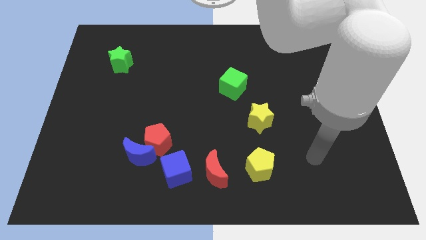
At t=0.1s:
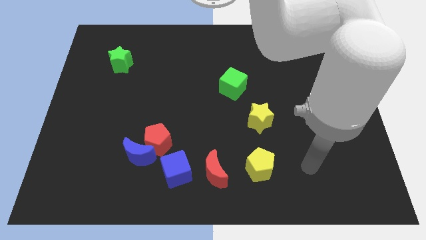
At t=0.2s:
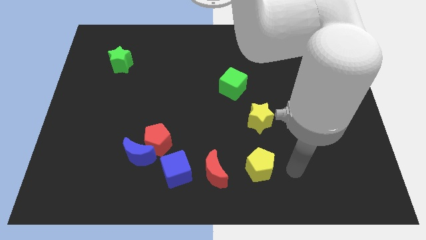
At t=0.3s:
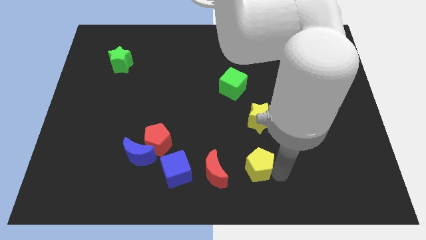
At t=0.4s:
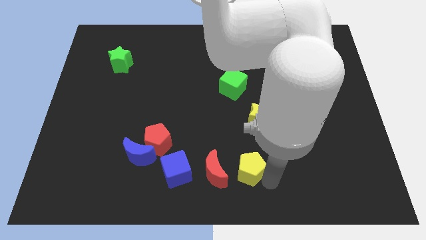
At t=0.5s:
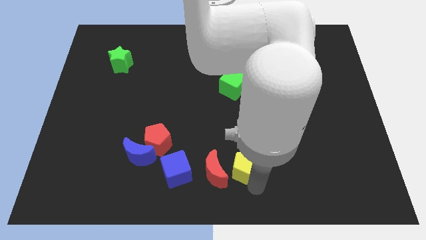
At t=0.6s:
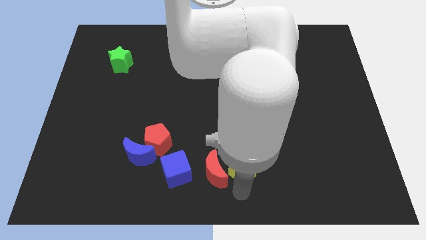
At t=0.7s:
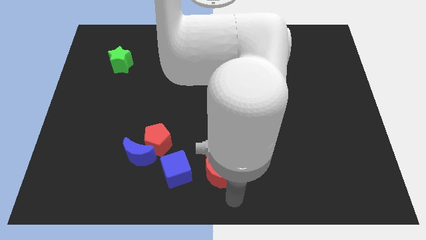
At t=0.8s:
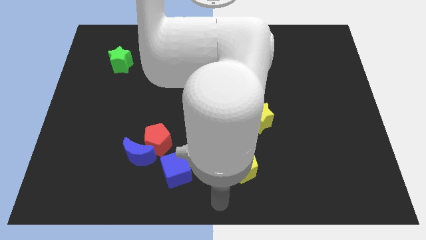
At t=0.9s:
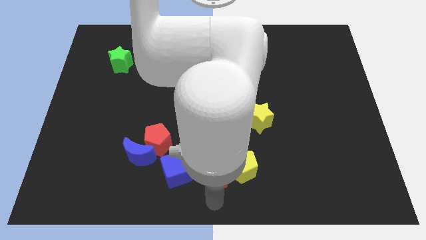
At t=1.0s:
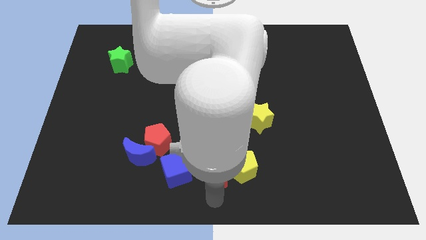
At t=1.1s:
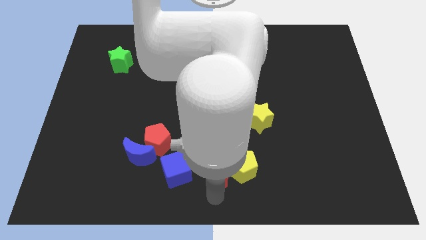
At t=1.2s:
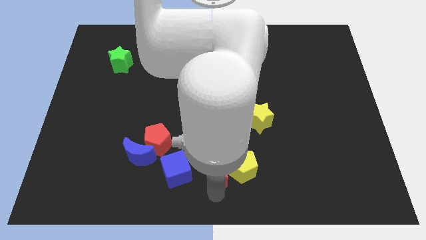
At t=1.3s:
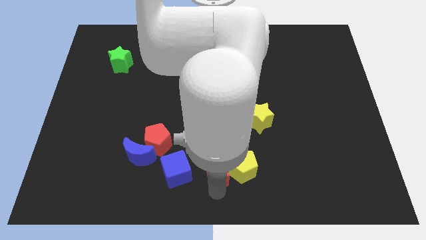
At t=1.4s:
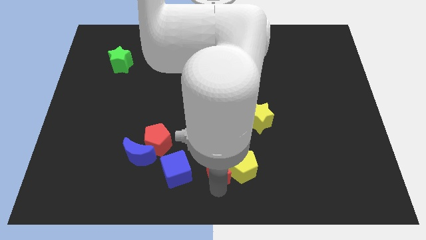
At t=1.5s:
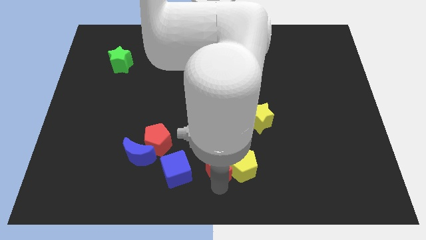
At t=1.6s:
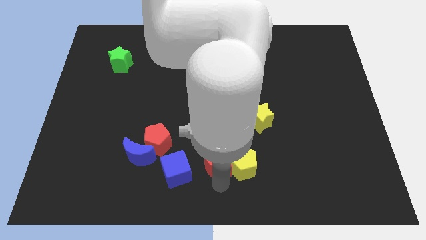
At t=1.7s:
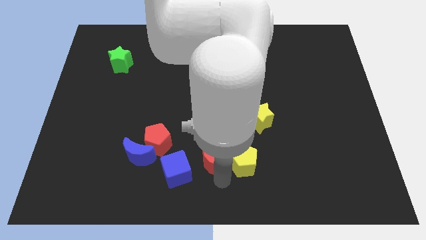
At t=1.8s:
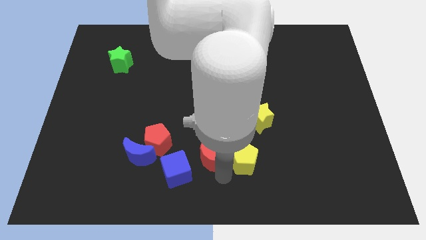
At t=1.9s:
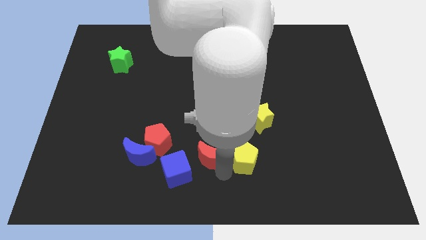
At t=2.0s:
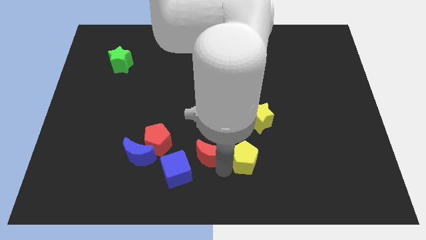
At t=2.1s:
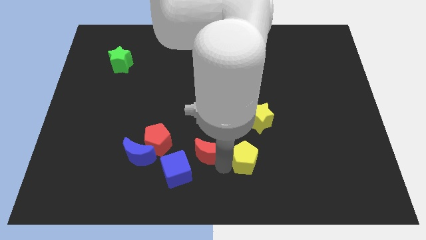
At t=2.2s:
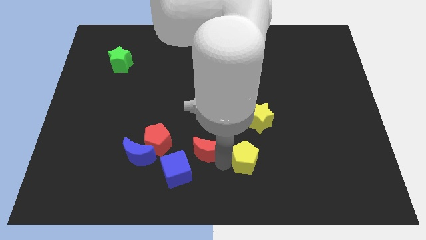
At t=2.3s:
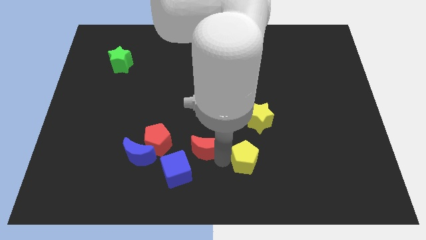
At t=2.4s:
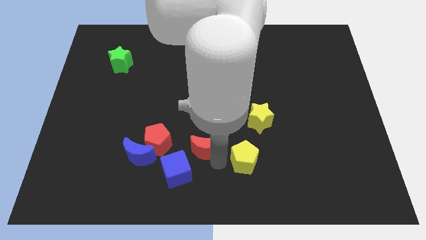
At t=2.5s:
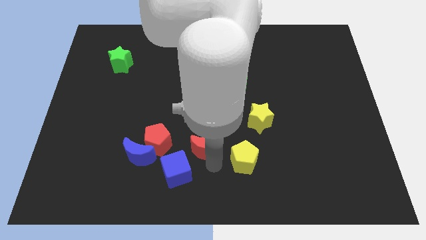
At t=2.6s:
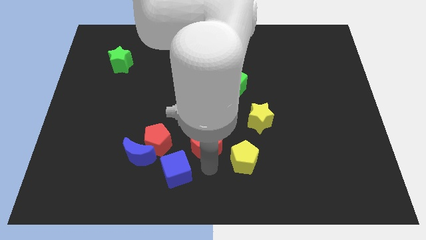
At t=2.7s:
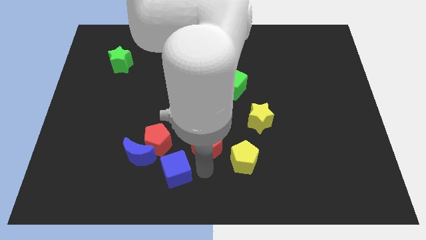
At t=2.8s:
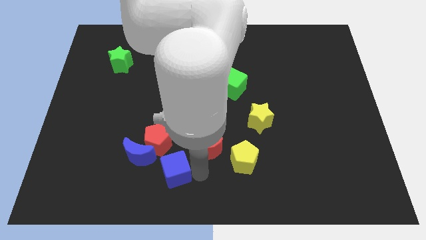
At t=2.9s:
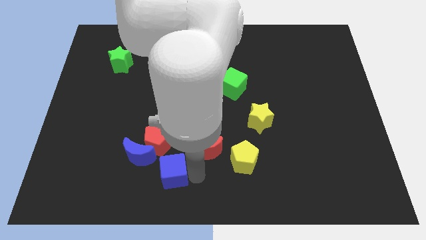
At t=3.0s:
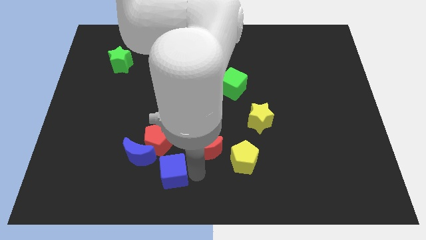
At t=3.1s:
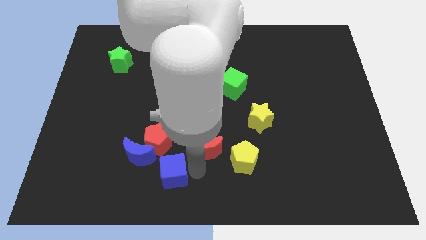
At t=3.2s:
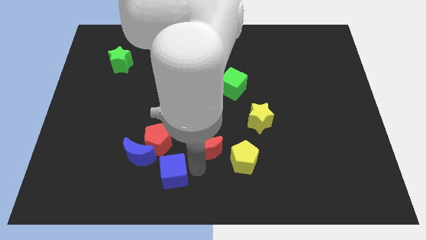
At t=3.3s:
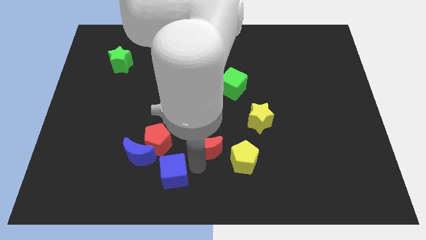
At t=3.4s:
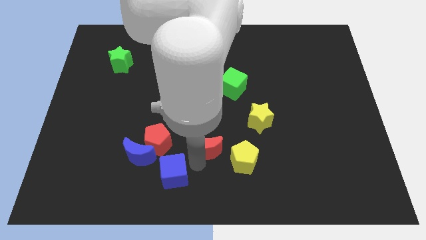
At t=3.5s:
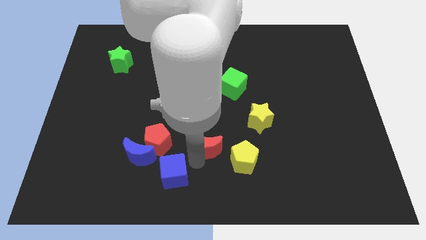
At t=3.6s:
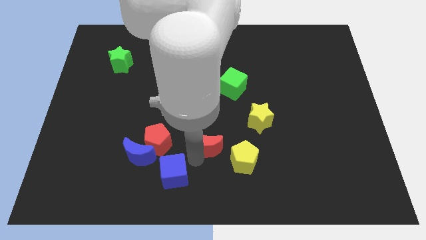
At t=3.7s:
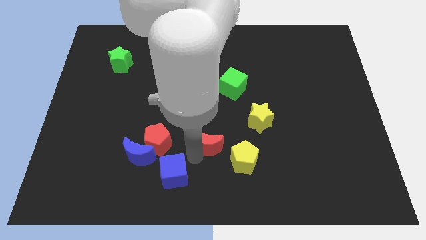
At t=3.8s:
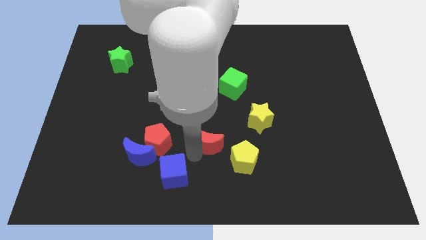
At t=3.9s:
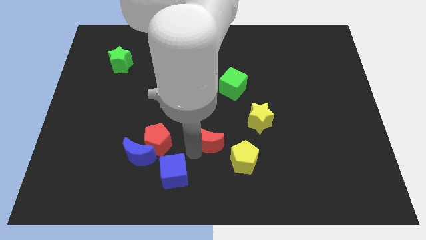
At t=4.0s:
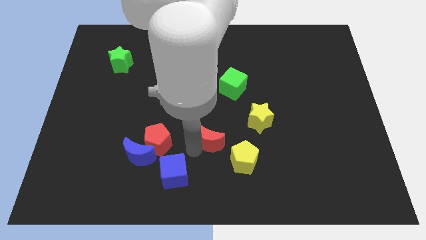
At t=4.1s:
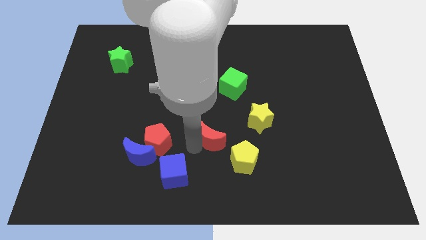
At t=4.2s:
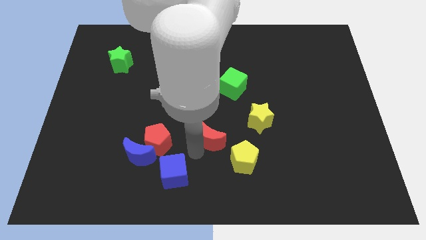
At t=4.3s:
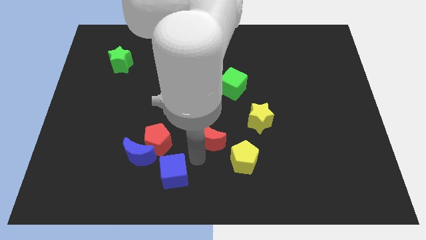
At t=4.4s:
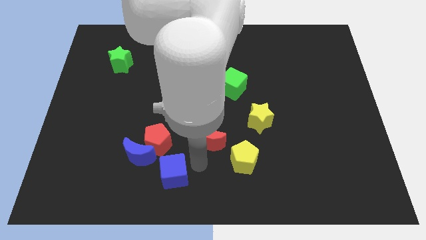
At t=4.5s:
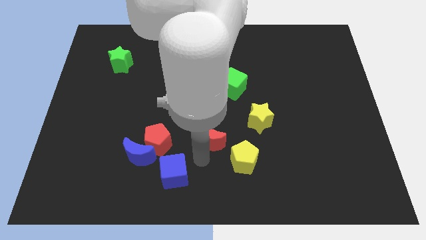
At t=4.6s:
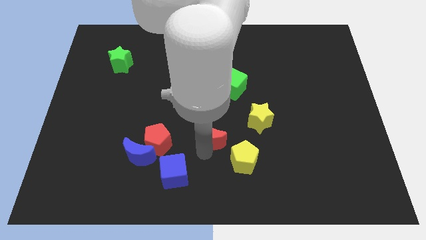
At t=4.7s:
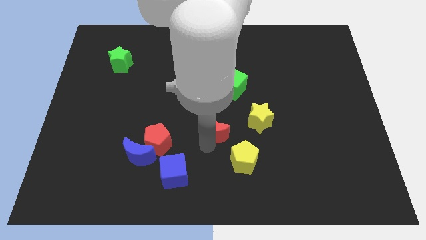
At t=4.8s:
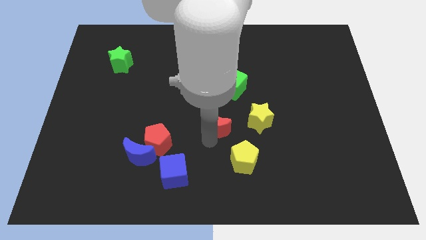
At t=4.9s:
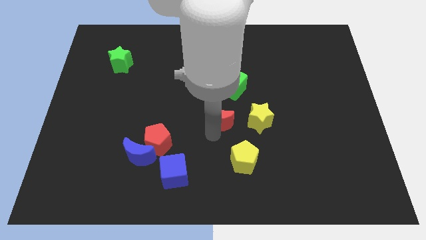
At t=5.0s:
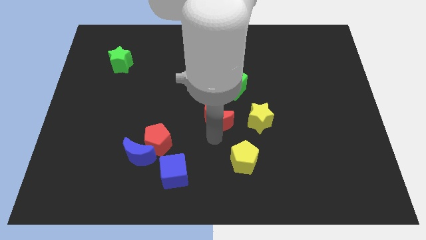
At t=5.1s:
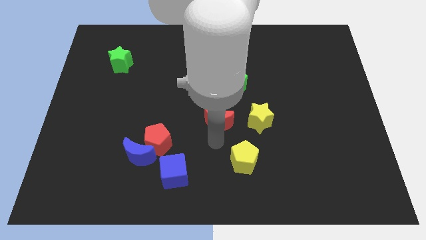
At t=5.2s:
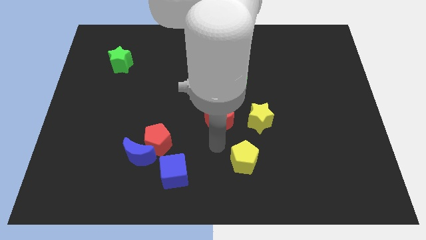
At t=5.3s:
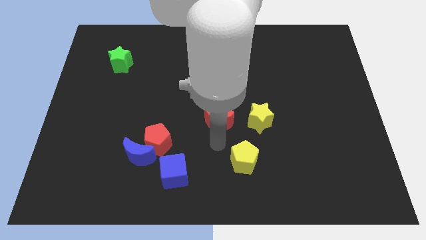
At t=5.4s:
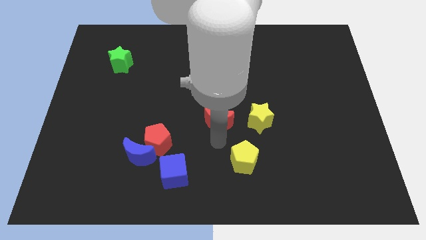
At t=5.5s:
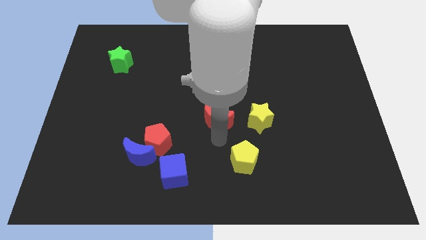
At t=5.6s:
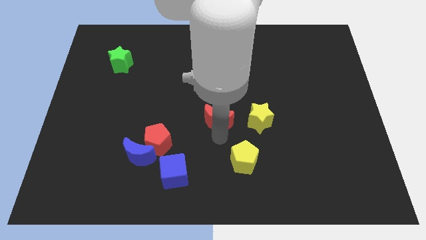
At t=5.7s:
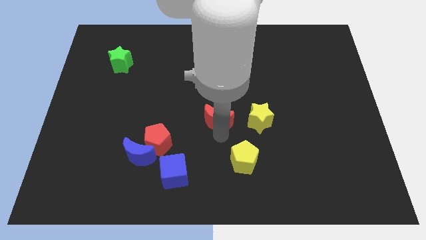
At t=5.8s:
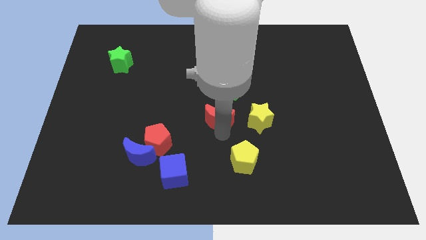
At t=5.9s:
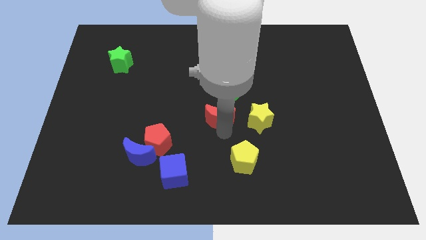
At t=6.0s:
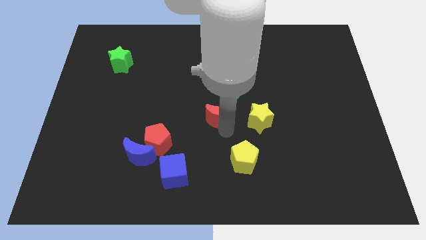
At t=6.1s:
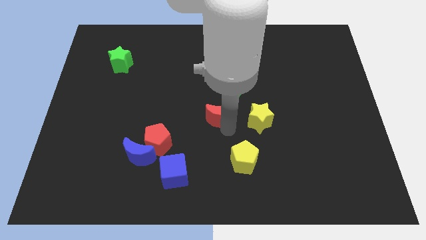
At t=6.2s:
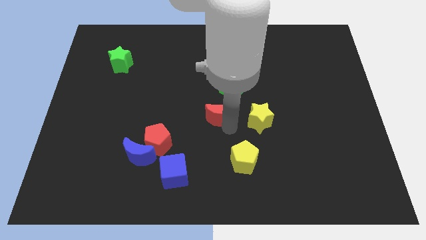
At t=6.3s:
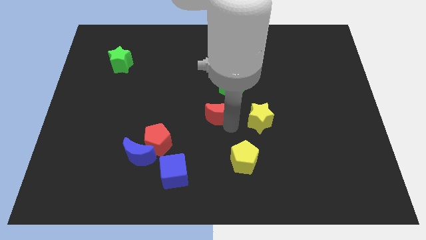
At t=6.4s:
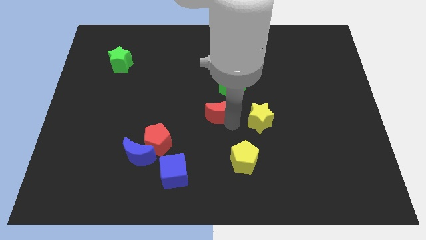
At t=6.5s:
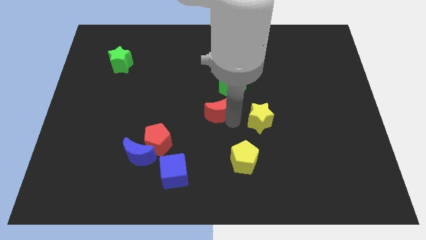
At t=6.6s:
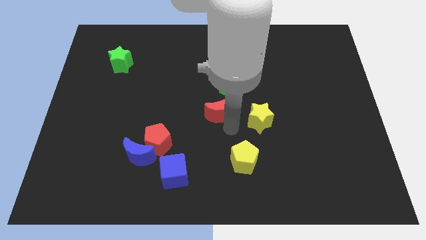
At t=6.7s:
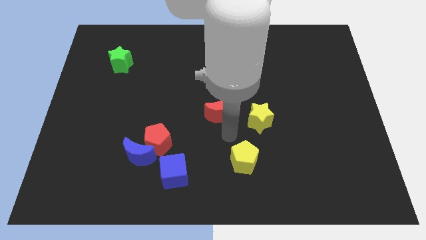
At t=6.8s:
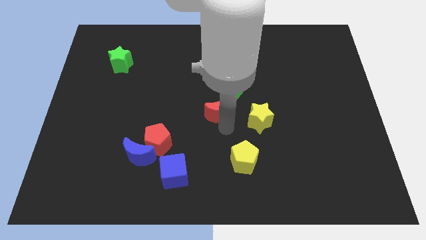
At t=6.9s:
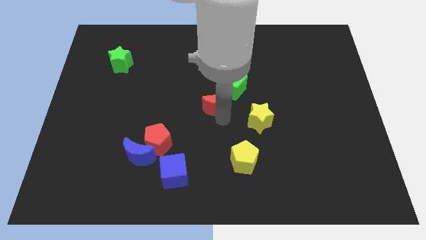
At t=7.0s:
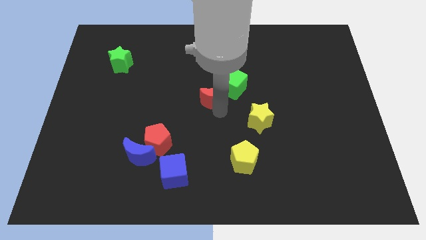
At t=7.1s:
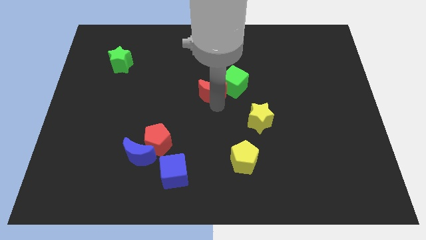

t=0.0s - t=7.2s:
slide the red moon upwards

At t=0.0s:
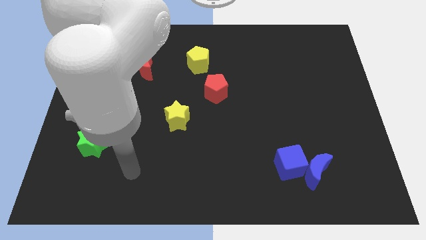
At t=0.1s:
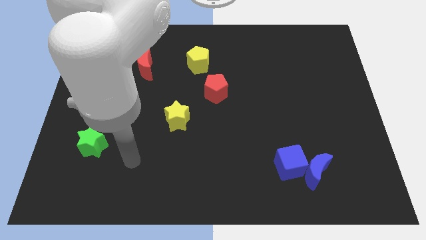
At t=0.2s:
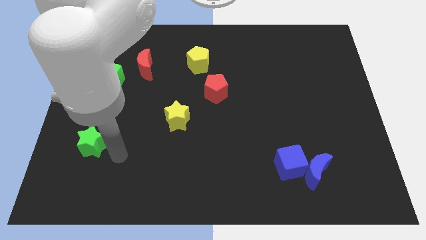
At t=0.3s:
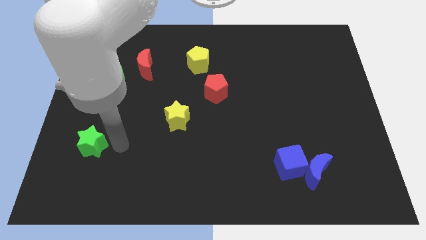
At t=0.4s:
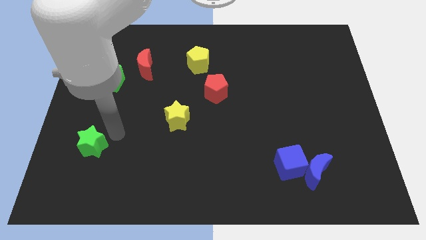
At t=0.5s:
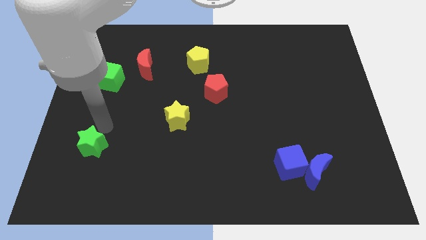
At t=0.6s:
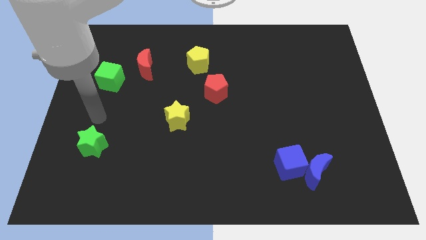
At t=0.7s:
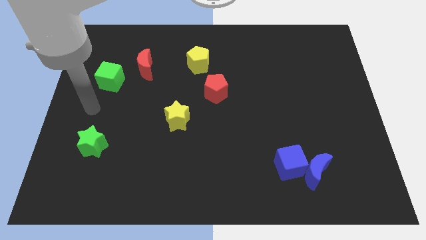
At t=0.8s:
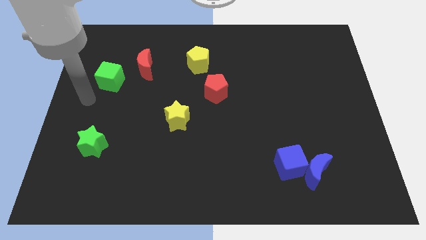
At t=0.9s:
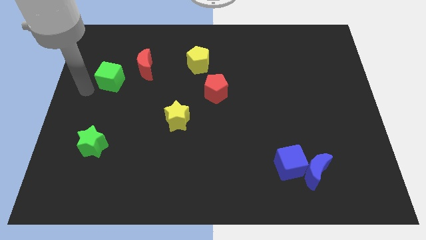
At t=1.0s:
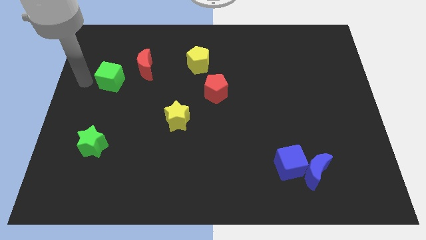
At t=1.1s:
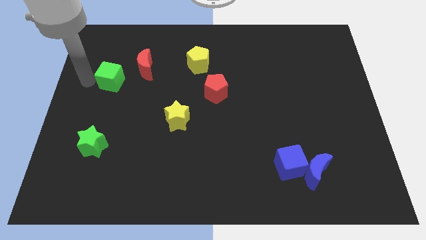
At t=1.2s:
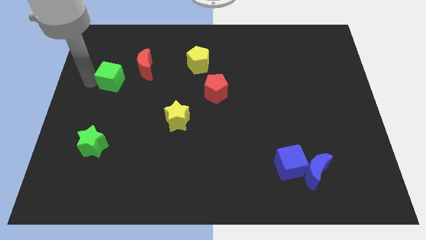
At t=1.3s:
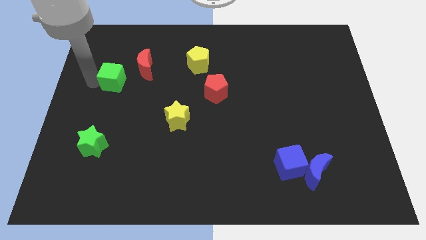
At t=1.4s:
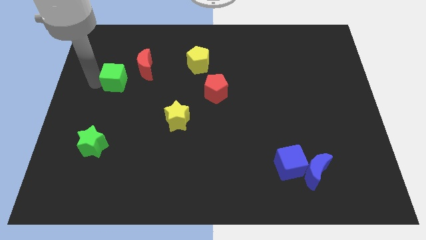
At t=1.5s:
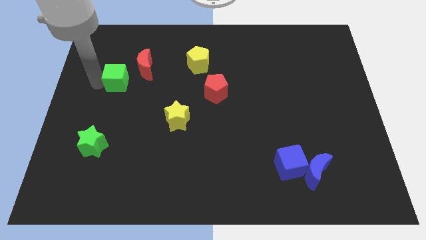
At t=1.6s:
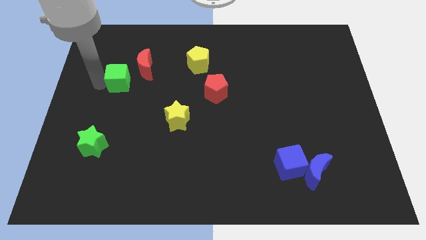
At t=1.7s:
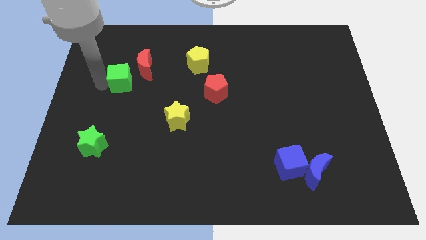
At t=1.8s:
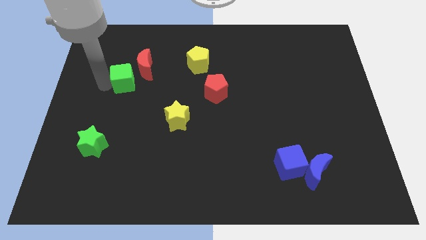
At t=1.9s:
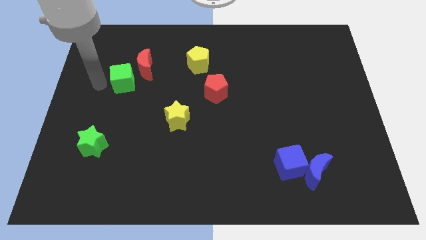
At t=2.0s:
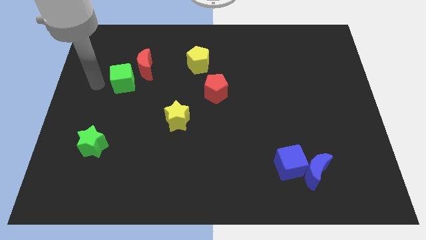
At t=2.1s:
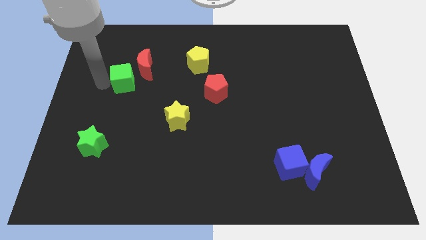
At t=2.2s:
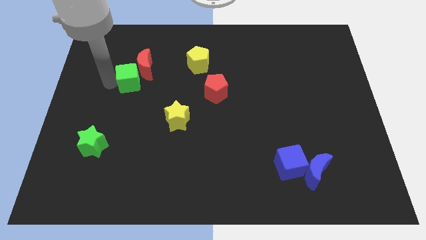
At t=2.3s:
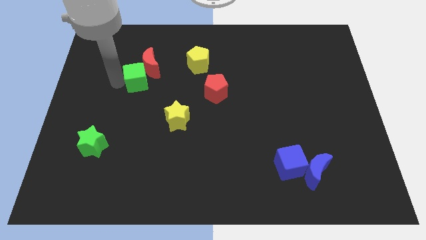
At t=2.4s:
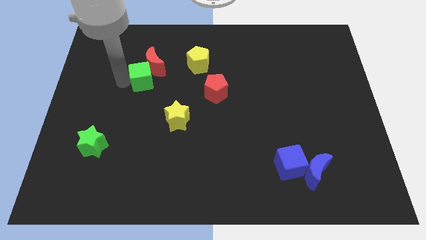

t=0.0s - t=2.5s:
slightly move the green cube right
